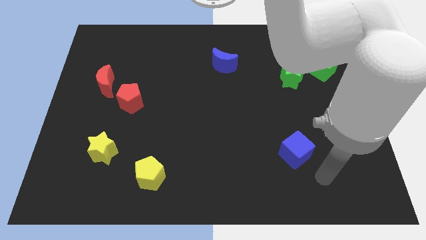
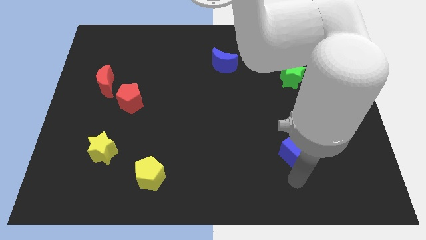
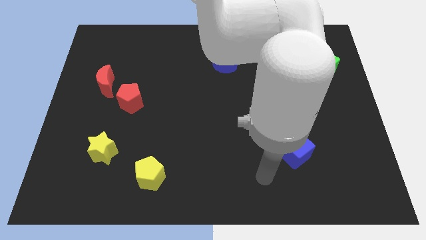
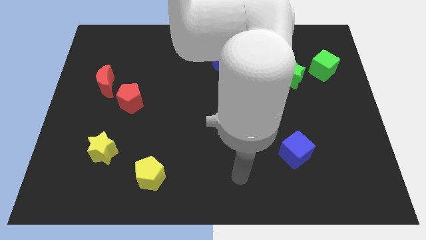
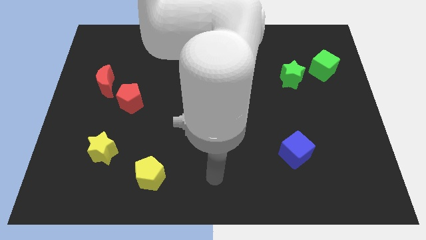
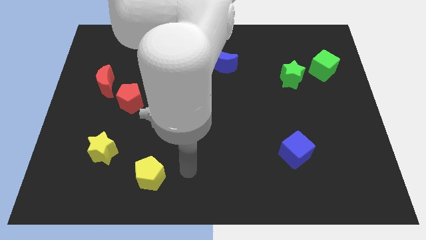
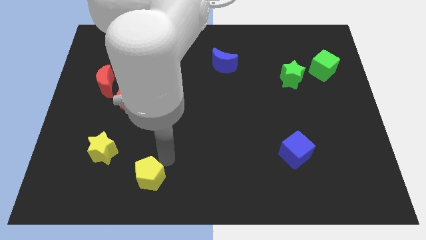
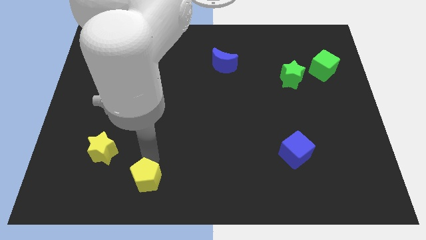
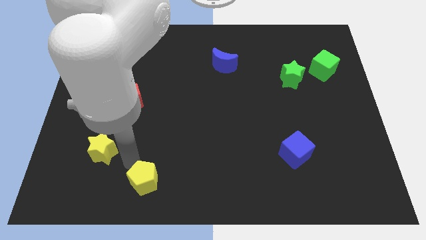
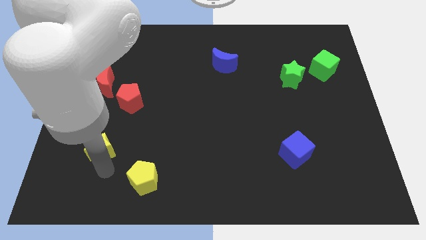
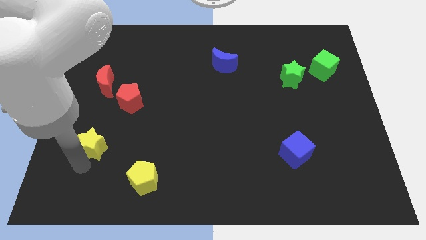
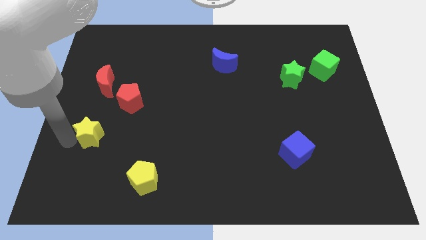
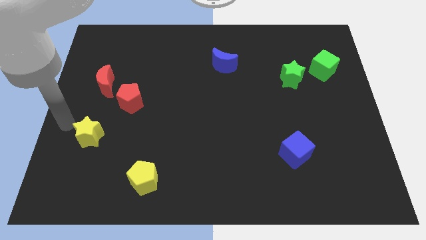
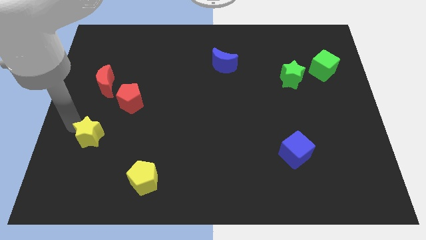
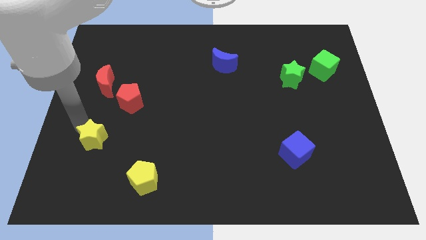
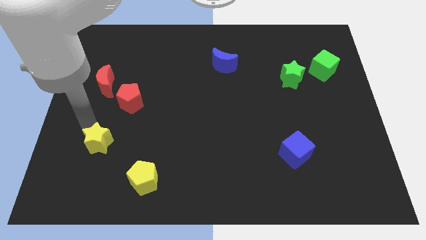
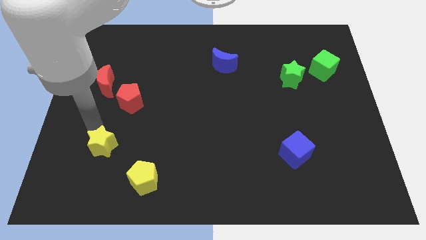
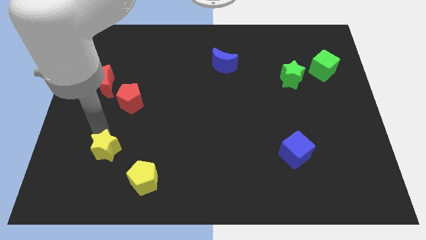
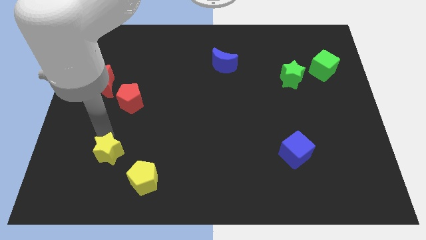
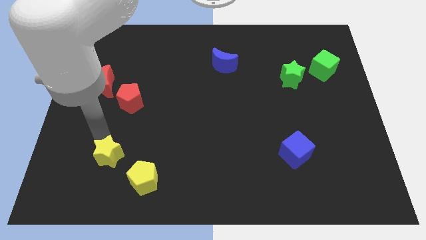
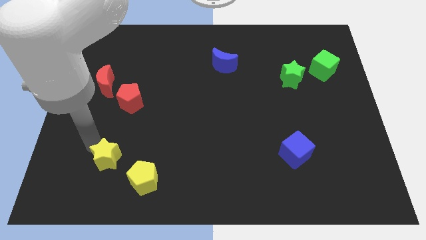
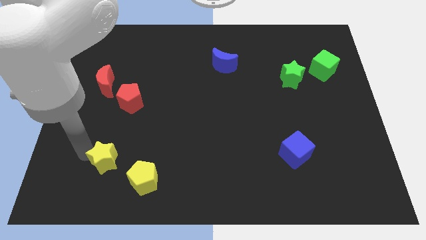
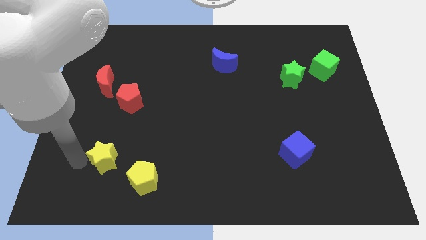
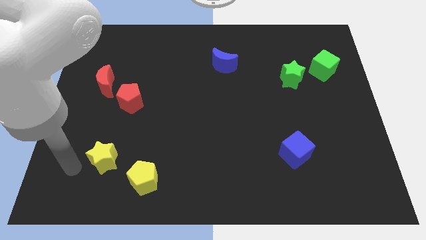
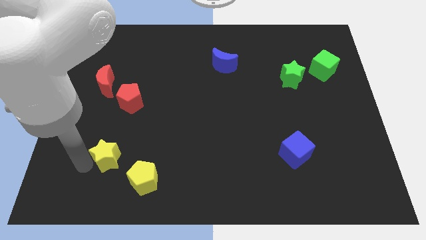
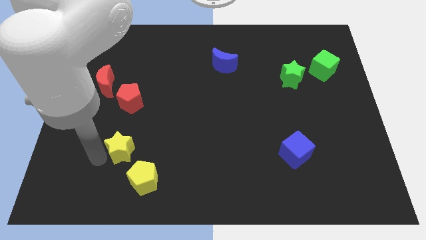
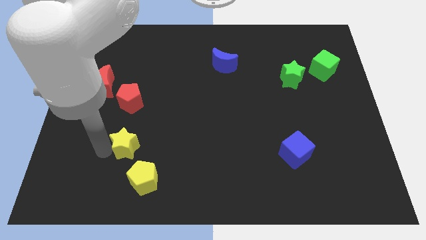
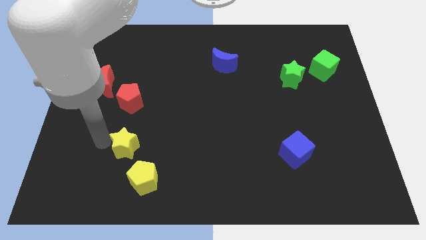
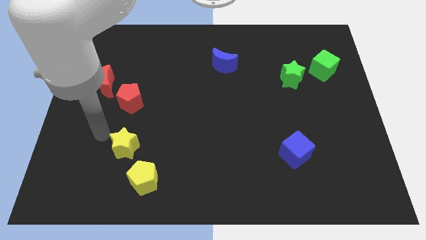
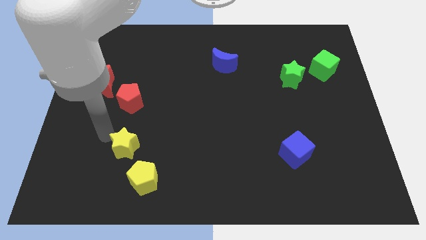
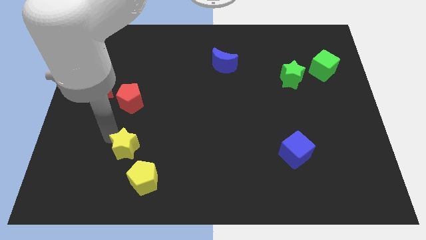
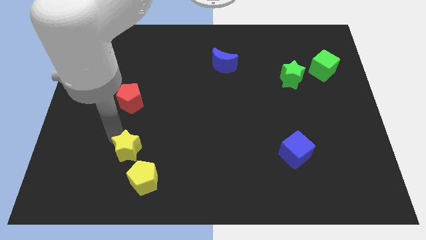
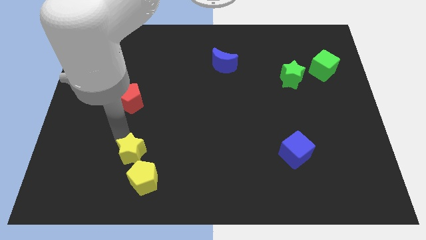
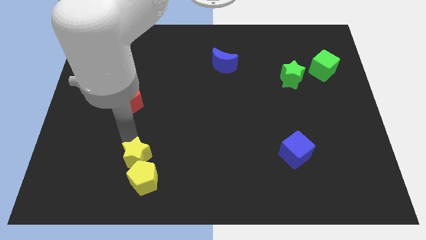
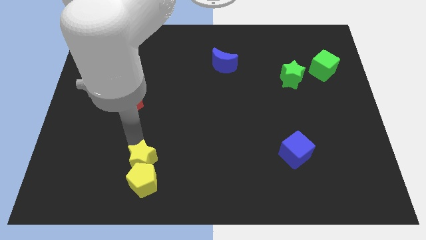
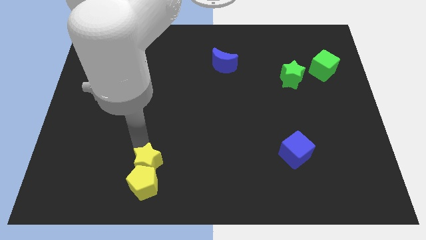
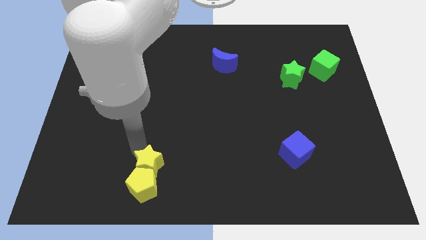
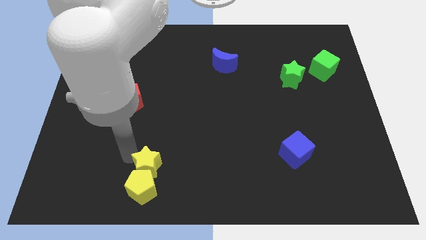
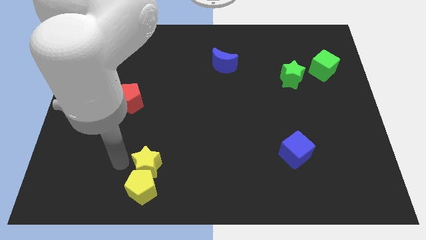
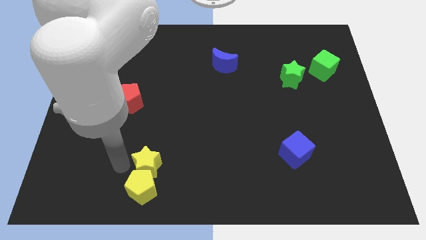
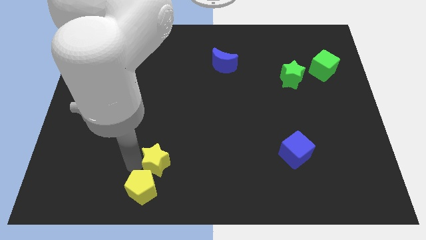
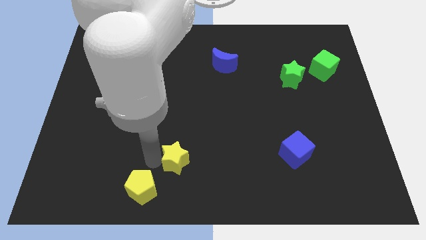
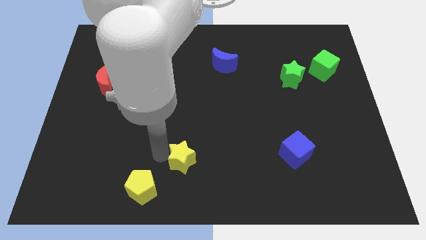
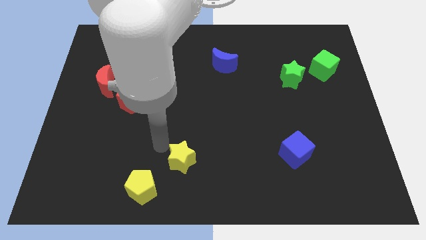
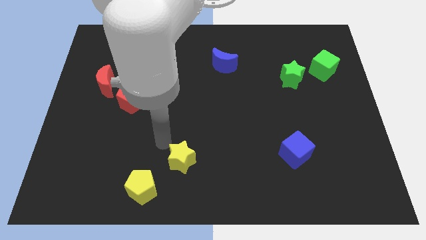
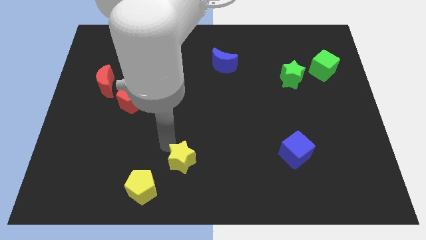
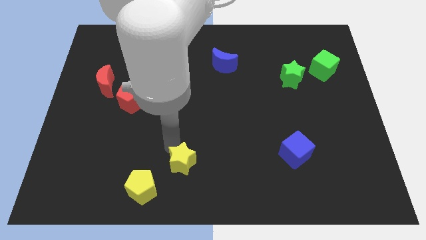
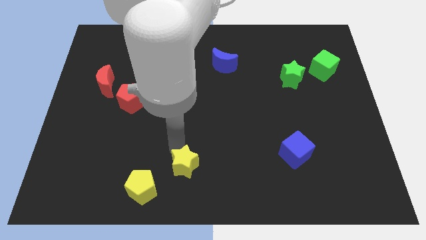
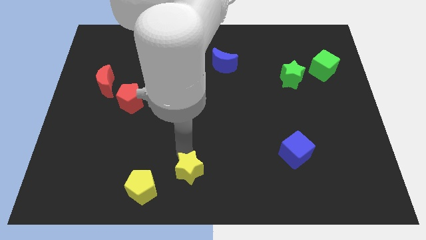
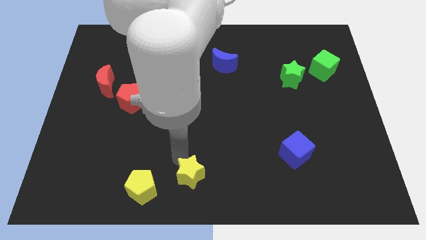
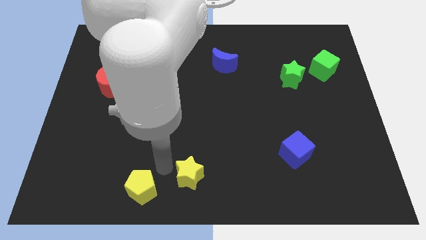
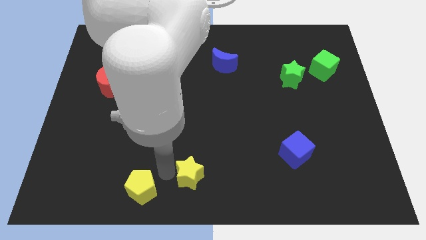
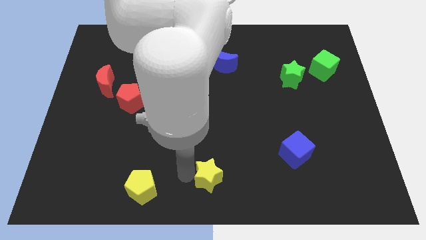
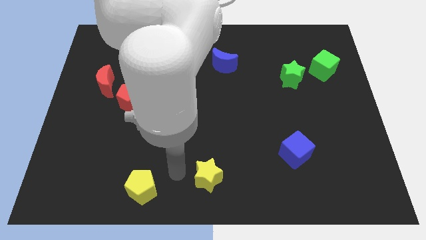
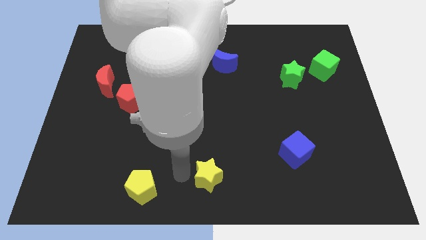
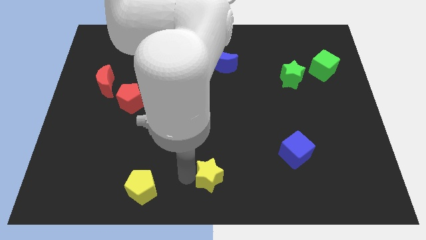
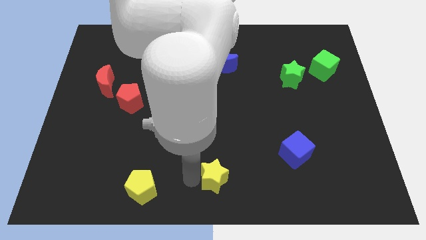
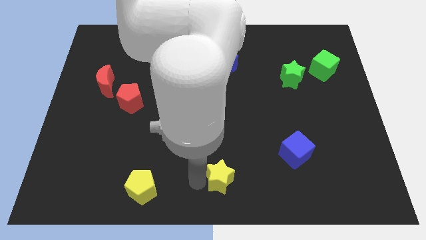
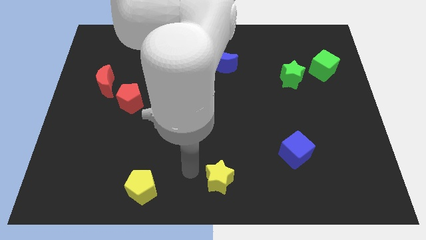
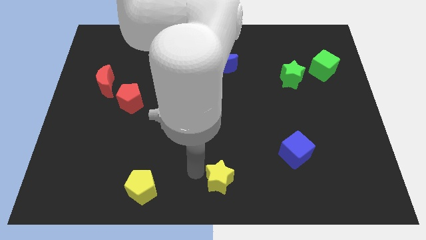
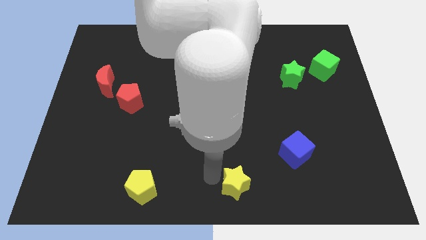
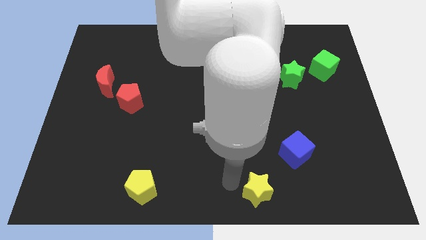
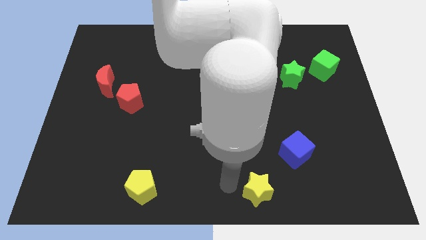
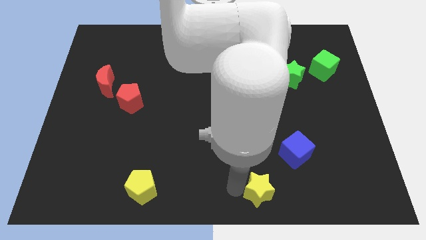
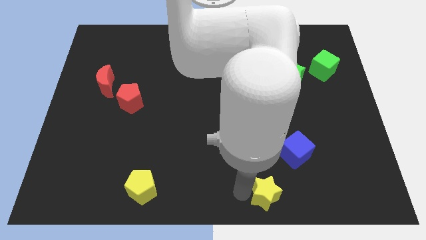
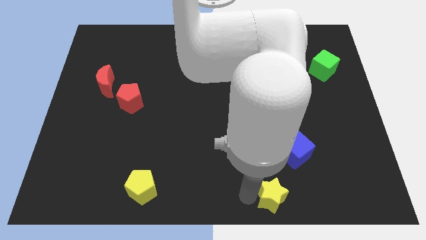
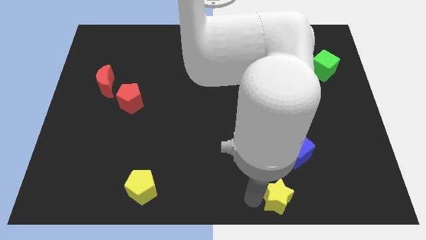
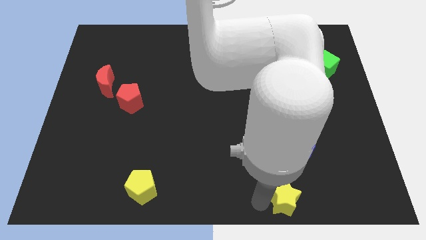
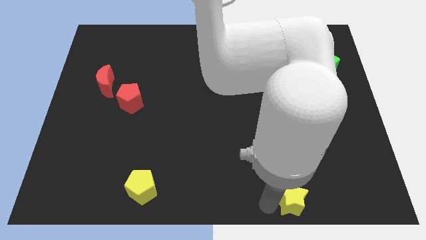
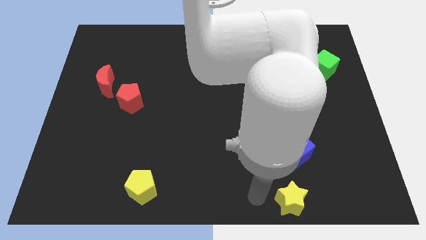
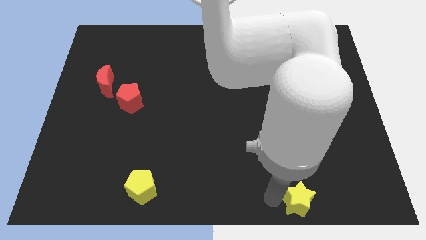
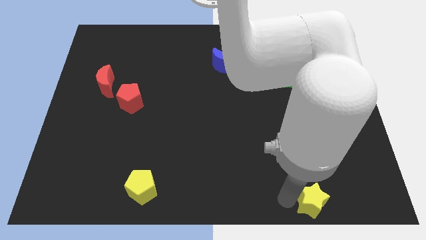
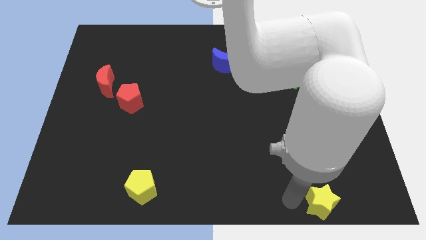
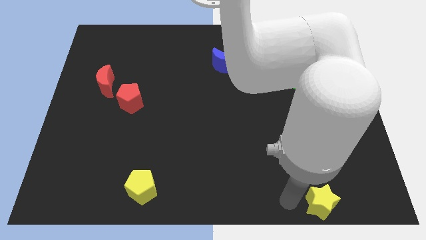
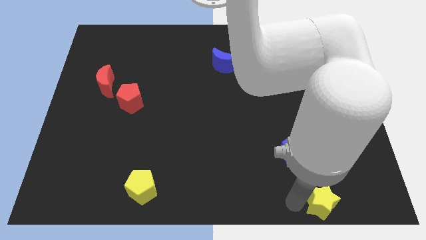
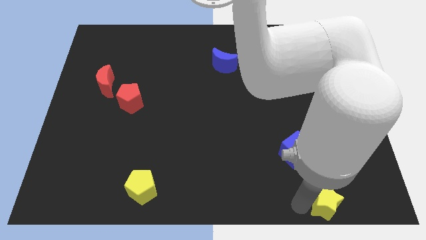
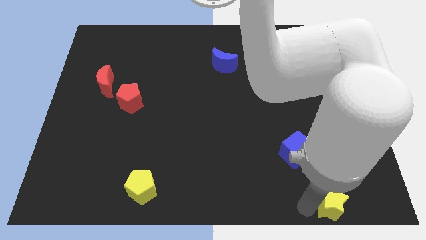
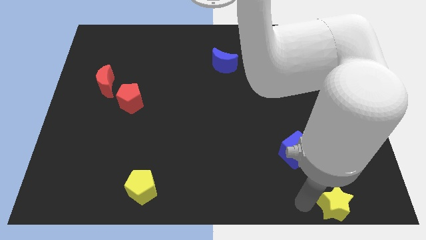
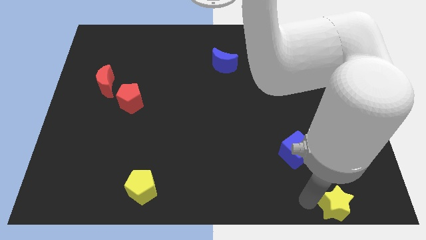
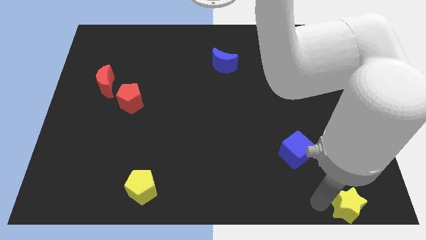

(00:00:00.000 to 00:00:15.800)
move the yellow star to the bottom right of the board
